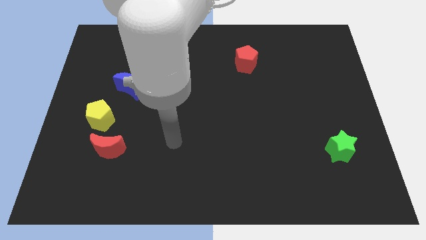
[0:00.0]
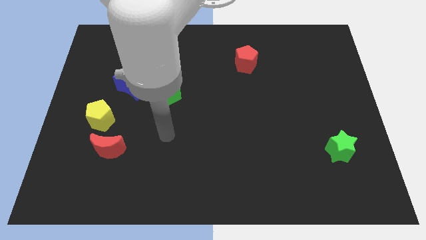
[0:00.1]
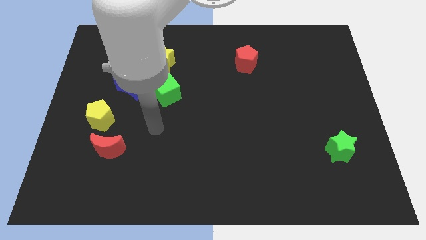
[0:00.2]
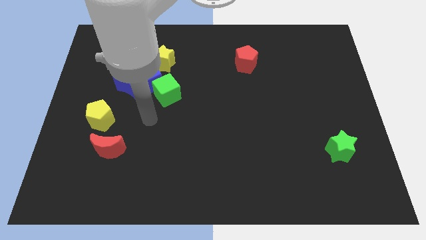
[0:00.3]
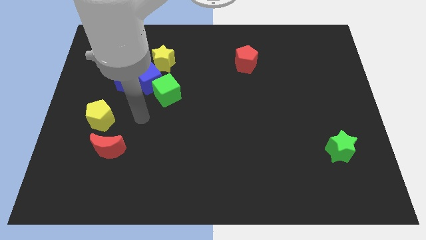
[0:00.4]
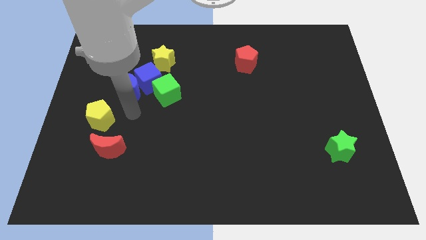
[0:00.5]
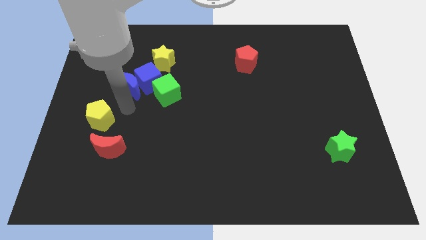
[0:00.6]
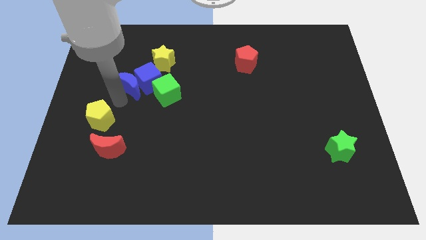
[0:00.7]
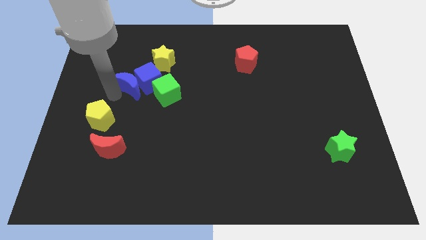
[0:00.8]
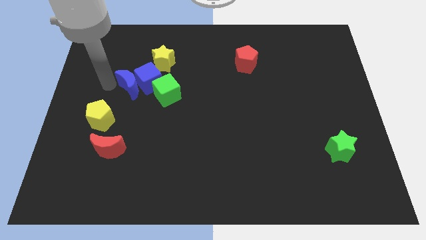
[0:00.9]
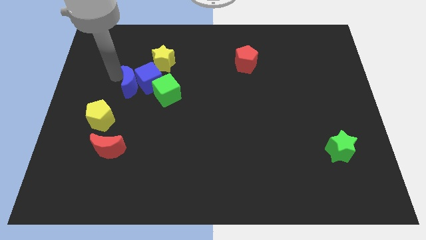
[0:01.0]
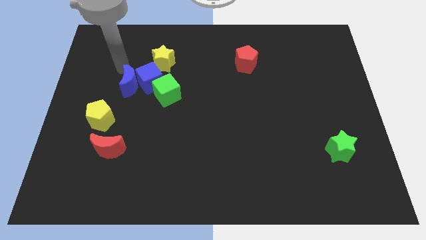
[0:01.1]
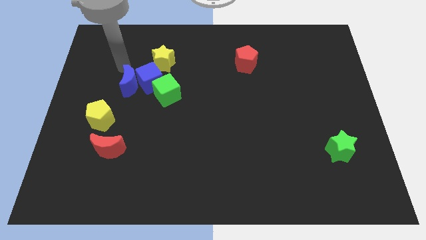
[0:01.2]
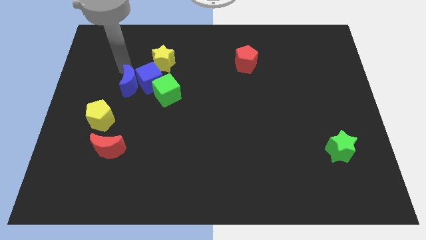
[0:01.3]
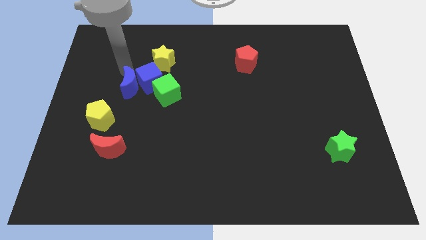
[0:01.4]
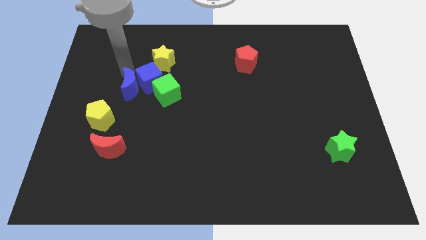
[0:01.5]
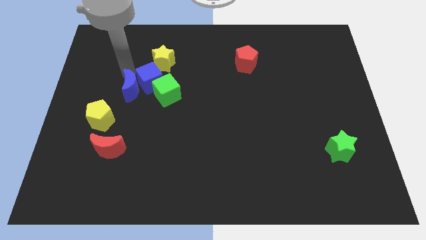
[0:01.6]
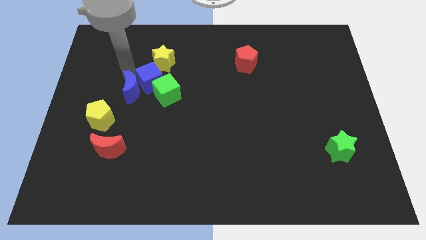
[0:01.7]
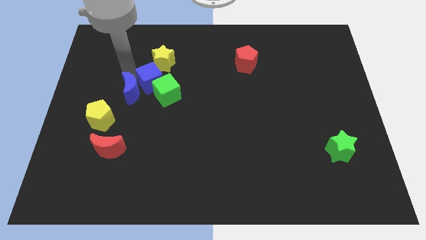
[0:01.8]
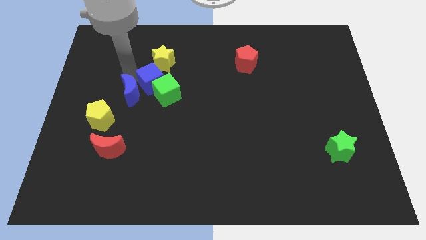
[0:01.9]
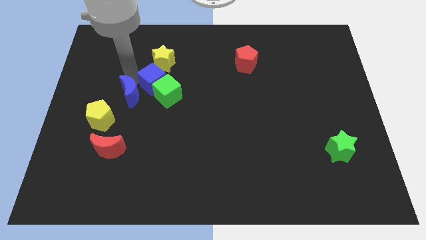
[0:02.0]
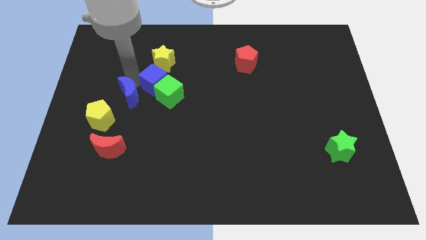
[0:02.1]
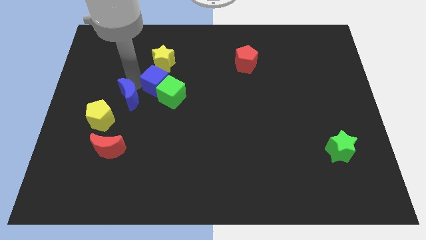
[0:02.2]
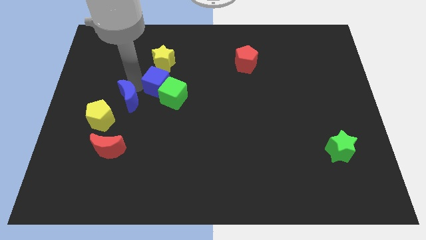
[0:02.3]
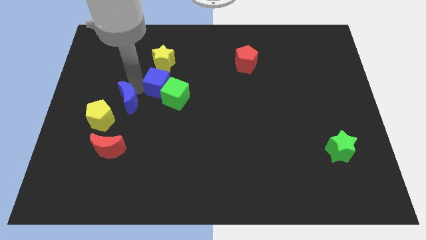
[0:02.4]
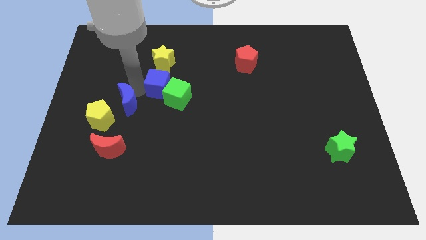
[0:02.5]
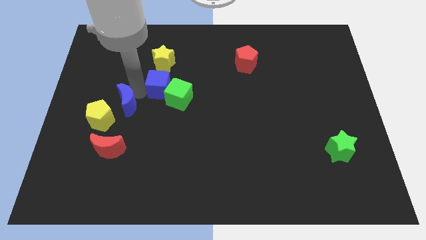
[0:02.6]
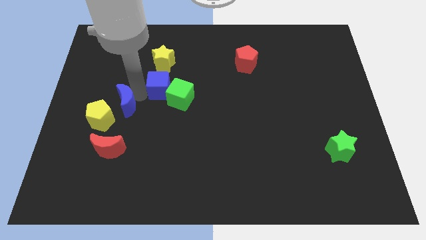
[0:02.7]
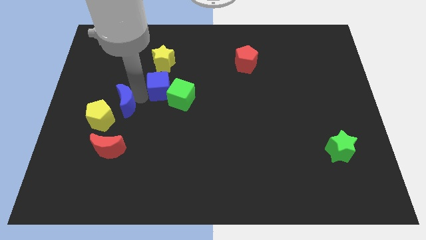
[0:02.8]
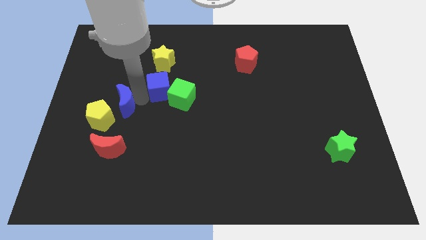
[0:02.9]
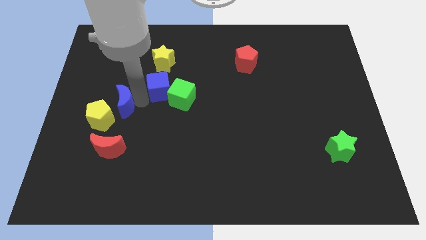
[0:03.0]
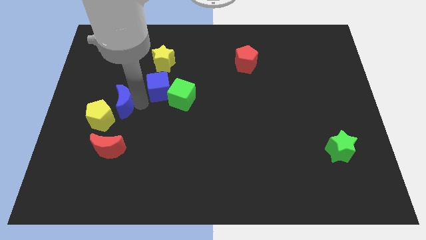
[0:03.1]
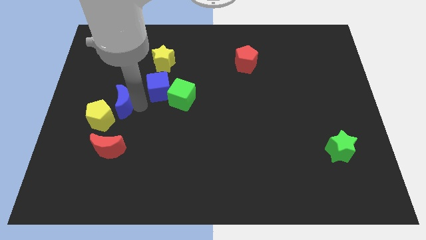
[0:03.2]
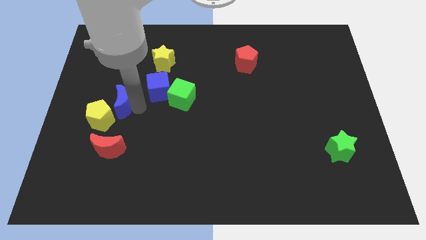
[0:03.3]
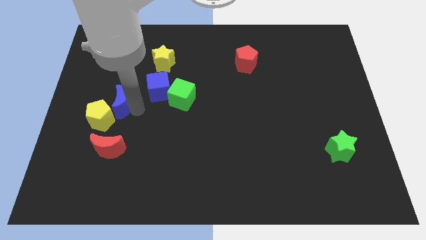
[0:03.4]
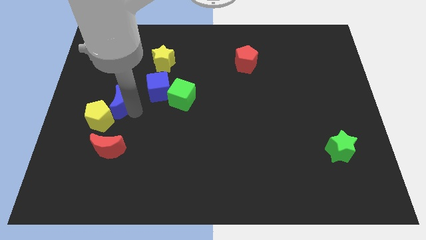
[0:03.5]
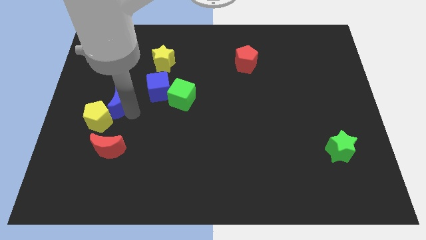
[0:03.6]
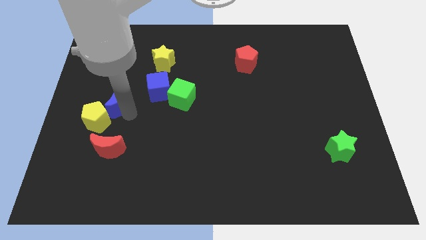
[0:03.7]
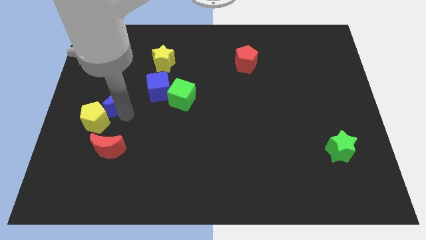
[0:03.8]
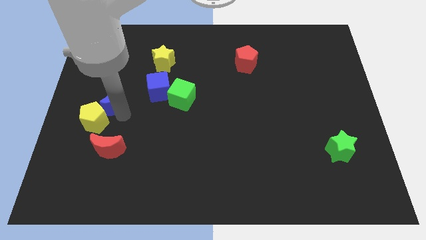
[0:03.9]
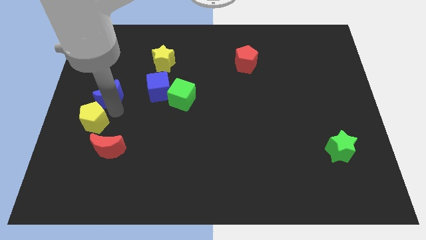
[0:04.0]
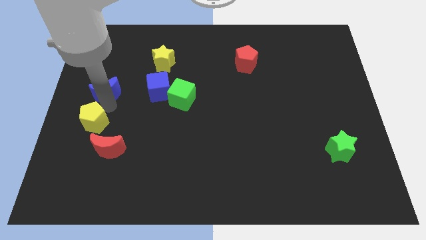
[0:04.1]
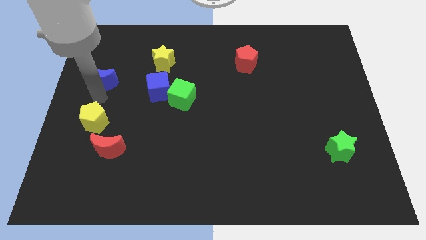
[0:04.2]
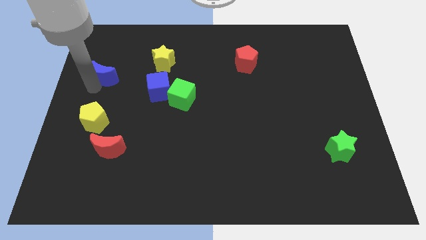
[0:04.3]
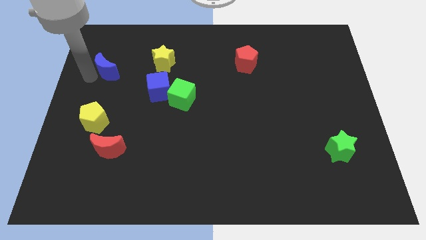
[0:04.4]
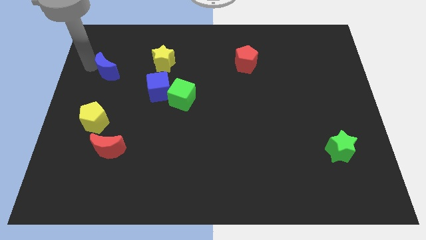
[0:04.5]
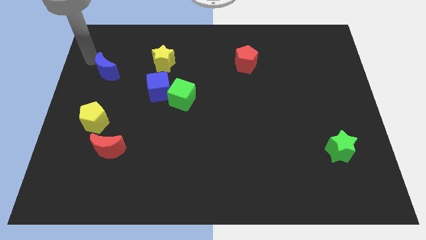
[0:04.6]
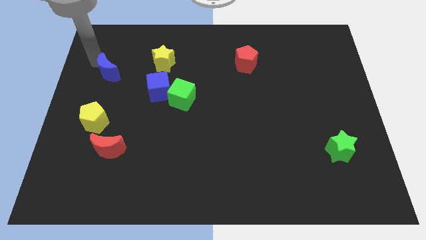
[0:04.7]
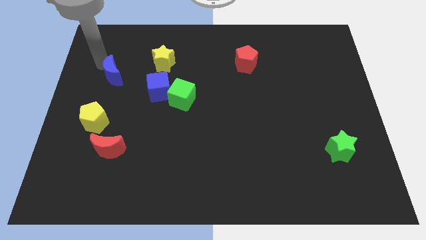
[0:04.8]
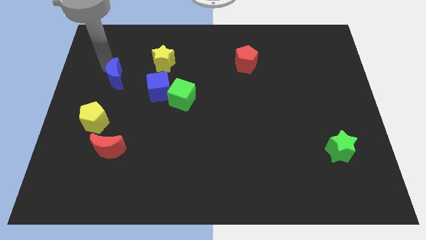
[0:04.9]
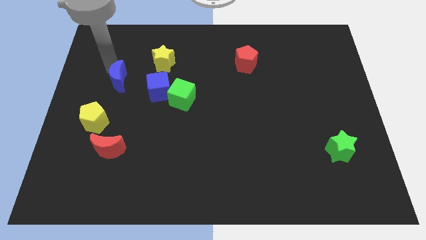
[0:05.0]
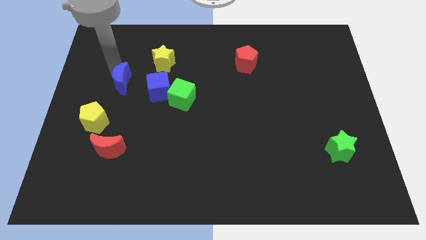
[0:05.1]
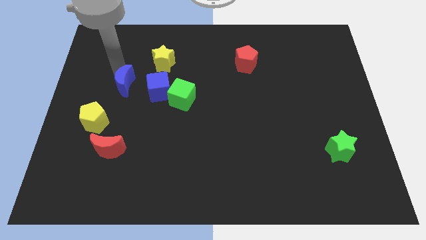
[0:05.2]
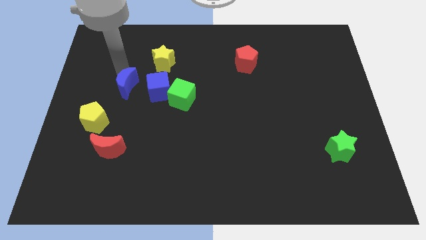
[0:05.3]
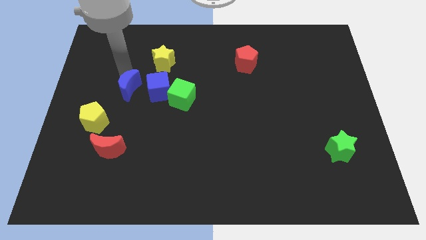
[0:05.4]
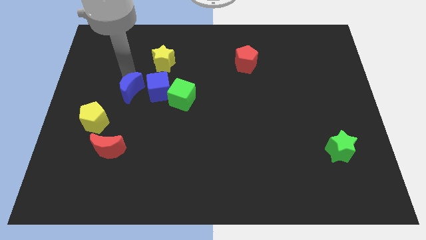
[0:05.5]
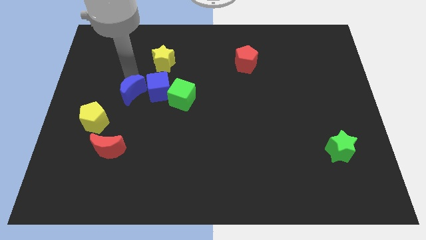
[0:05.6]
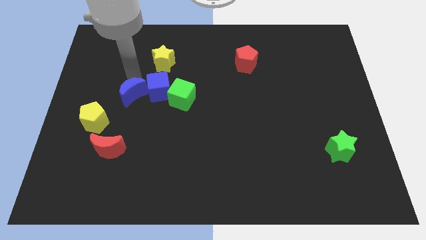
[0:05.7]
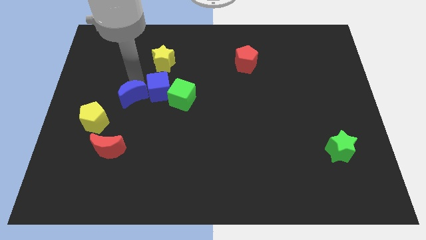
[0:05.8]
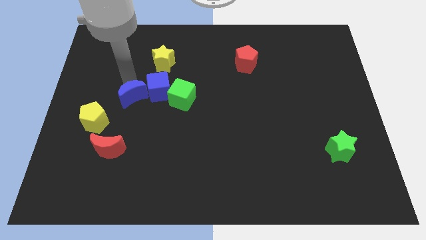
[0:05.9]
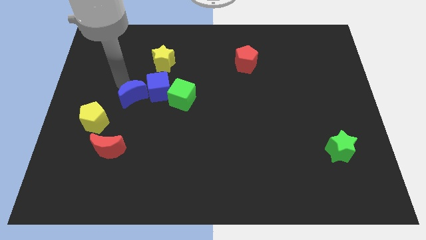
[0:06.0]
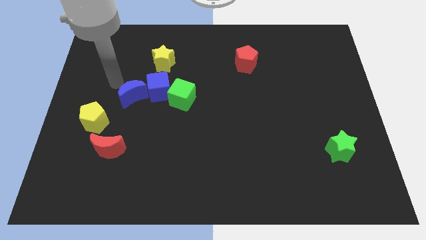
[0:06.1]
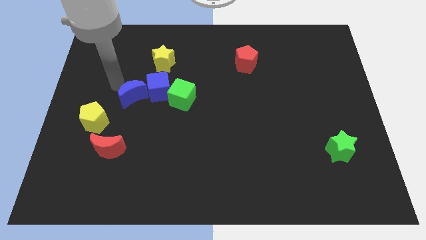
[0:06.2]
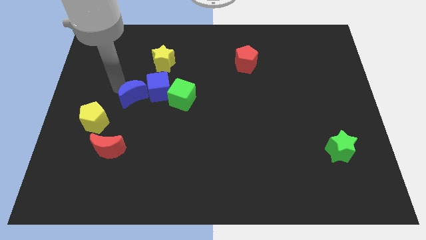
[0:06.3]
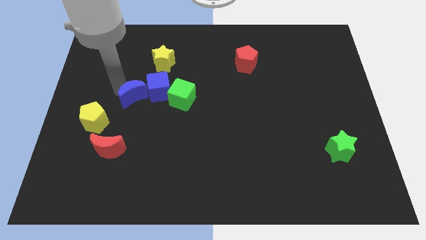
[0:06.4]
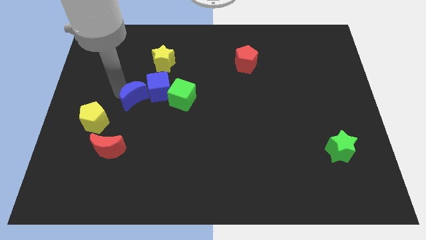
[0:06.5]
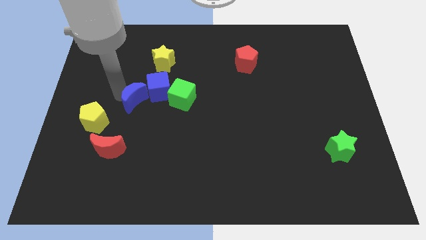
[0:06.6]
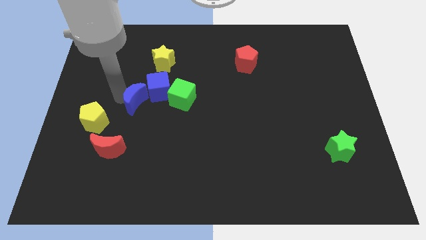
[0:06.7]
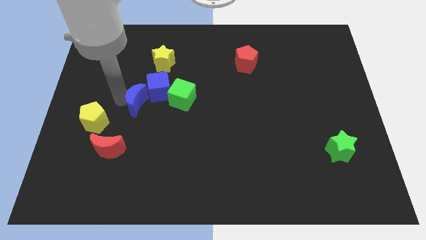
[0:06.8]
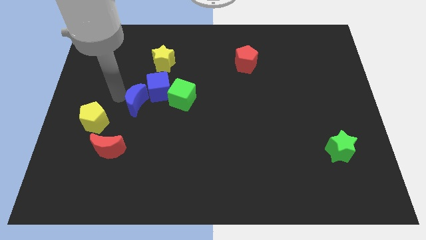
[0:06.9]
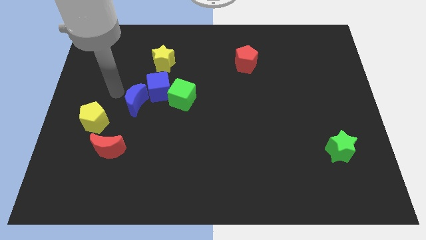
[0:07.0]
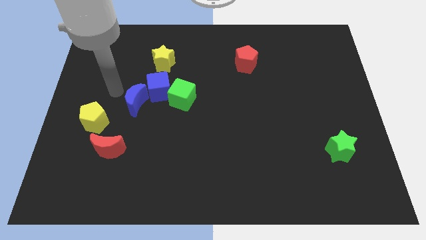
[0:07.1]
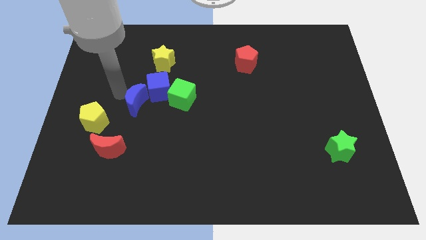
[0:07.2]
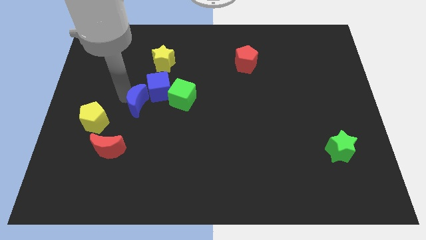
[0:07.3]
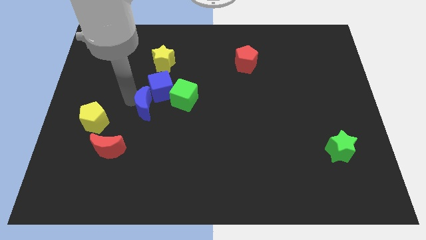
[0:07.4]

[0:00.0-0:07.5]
push the blue moon to the bottom left side of the green cube
